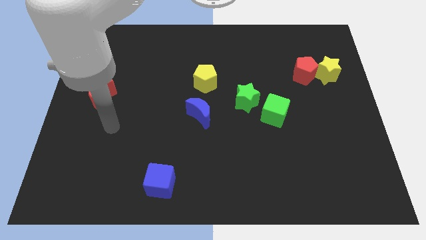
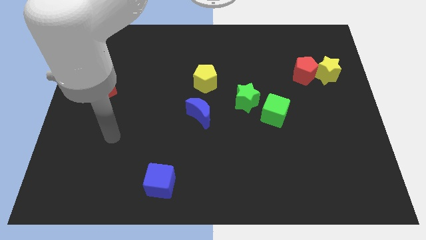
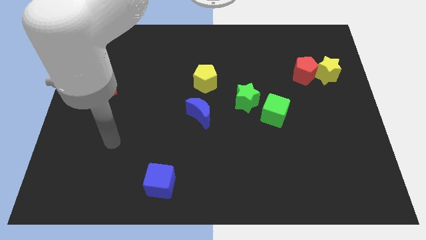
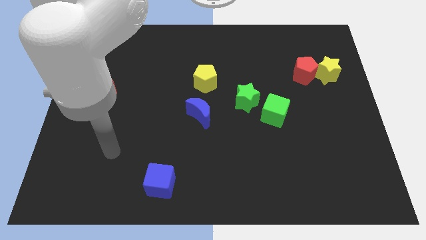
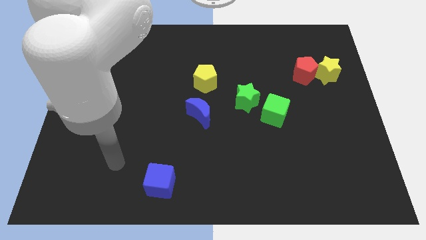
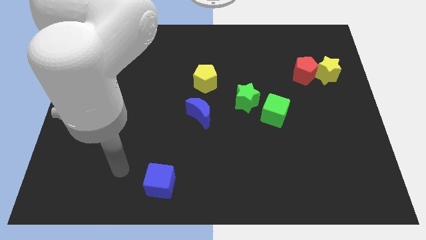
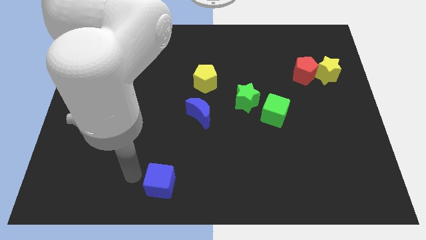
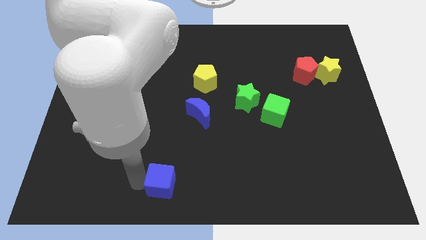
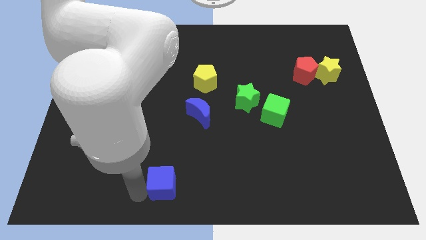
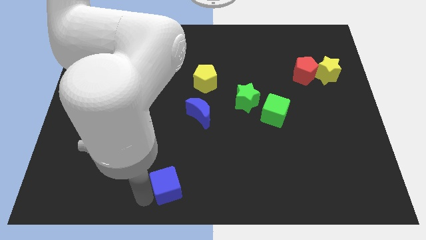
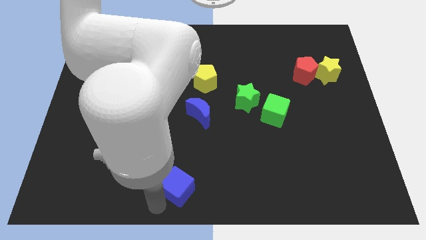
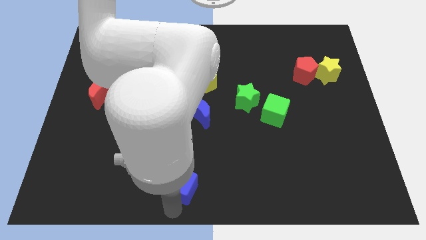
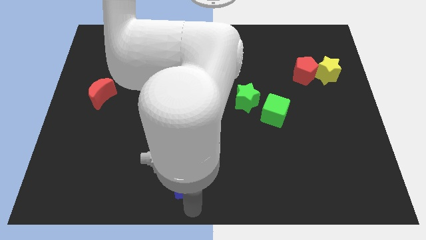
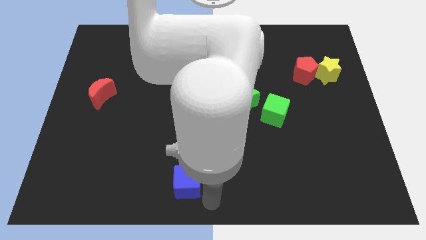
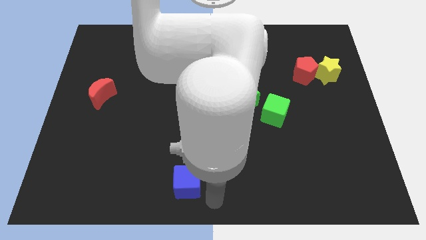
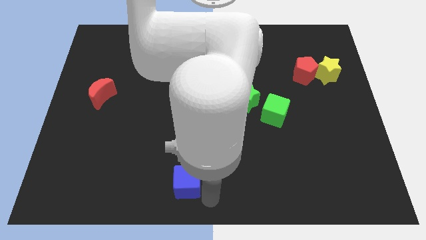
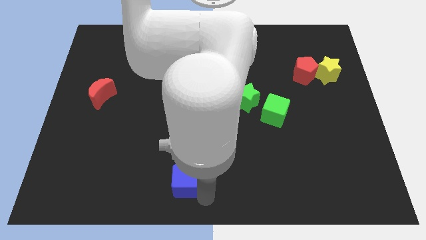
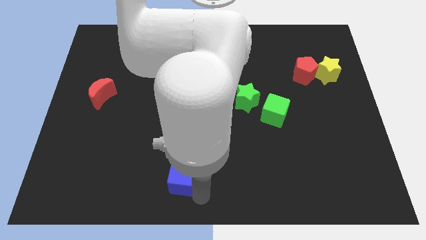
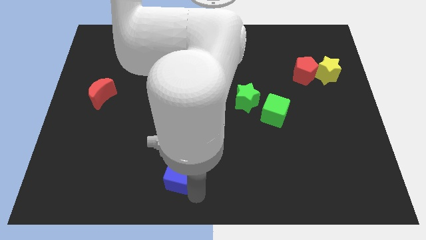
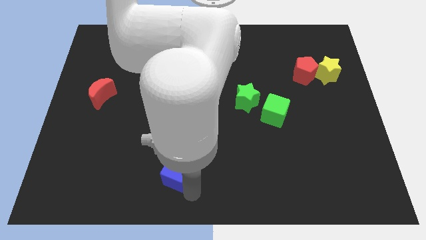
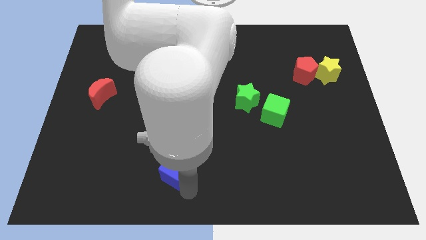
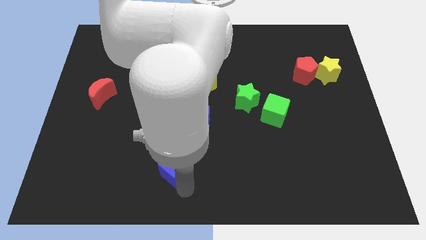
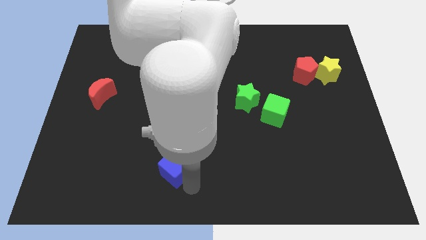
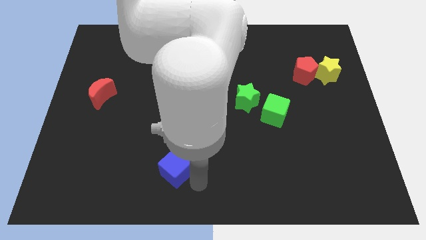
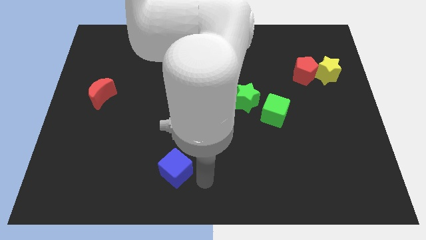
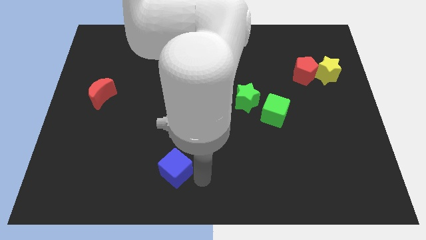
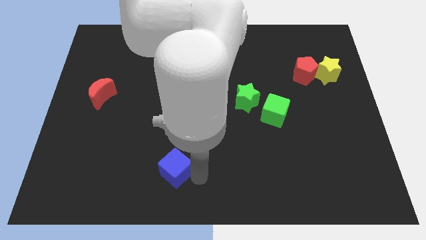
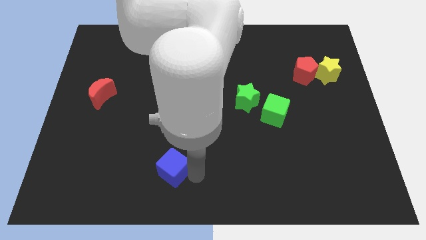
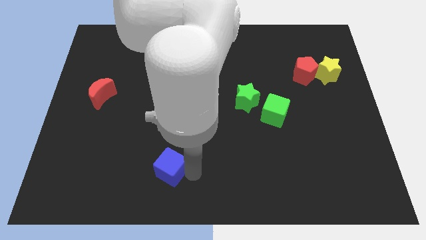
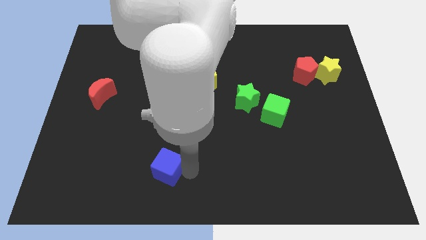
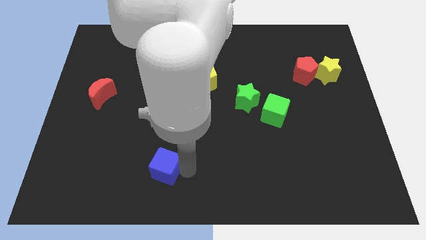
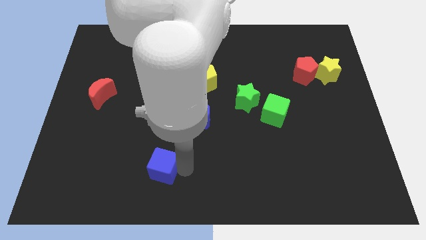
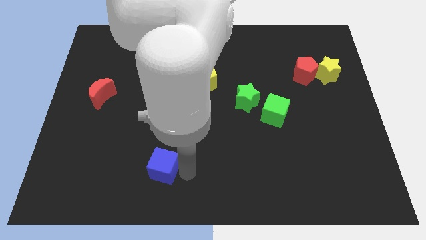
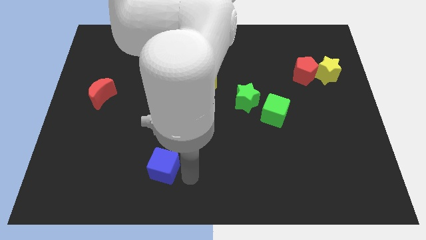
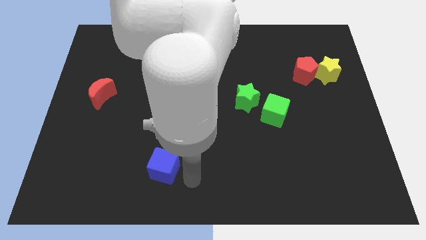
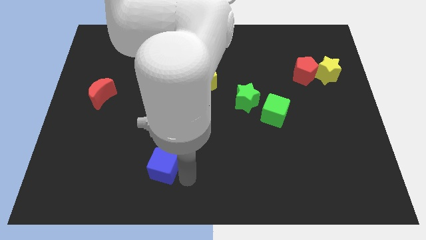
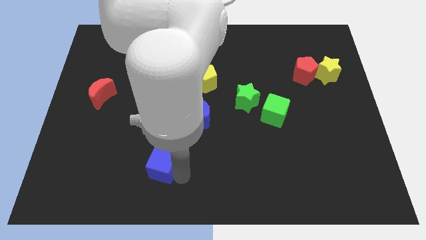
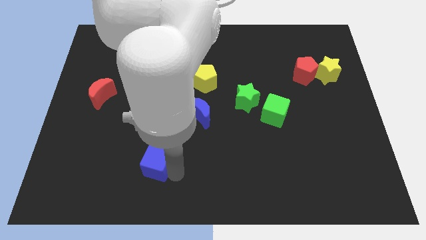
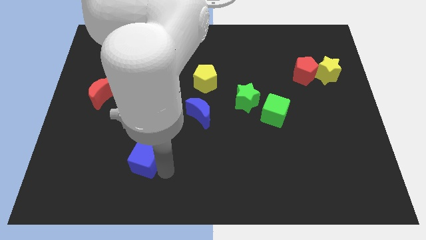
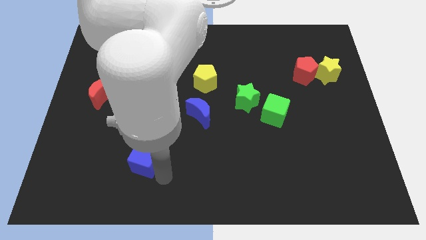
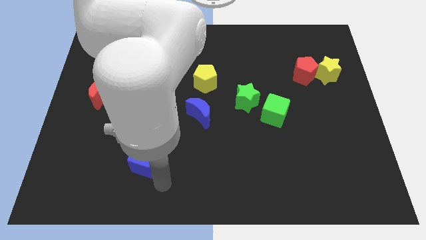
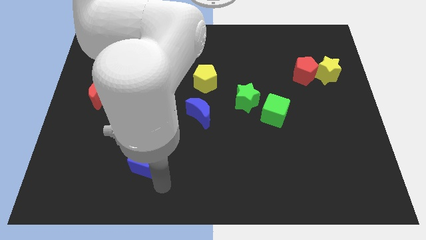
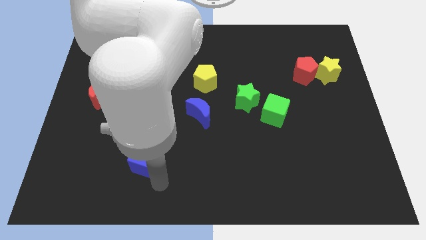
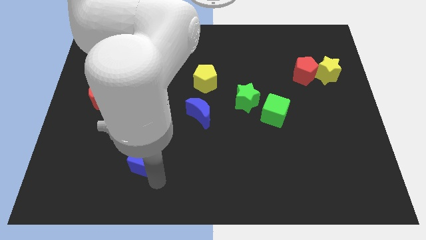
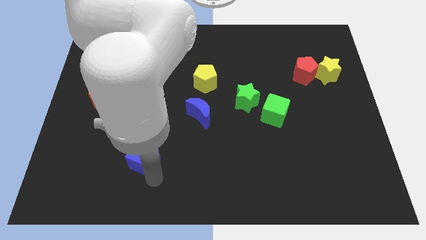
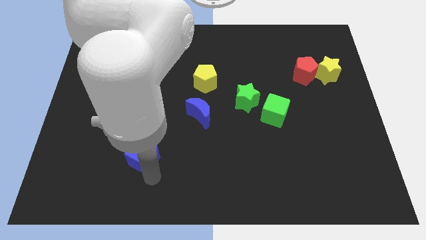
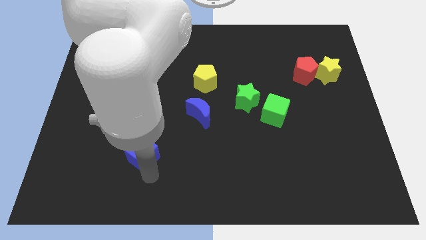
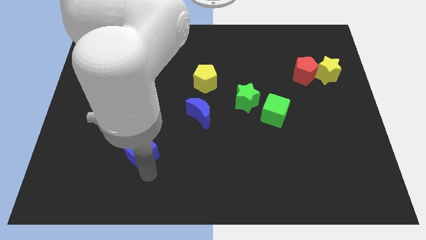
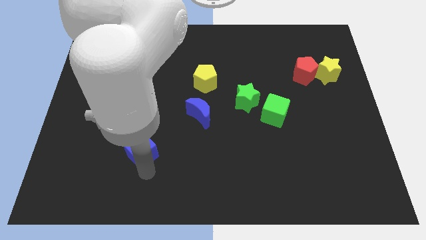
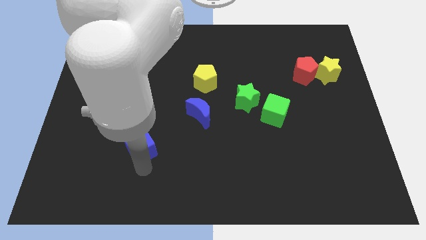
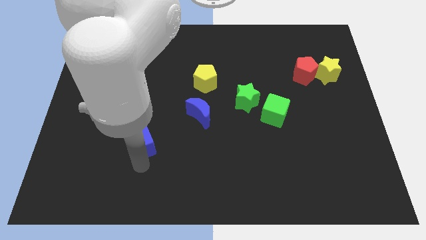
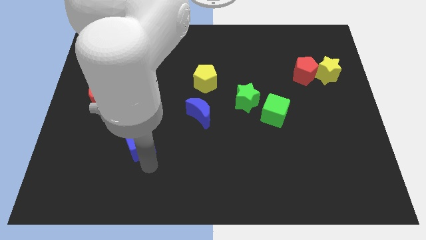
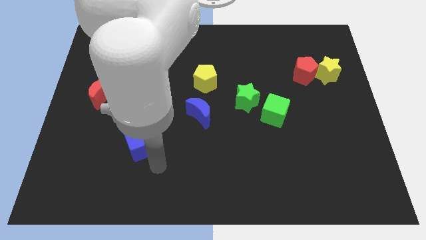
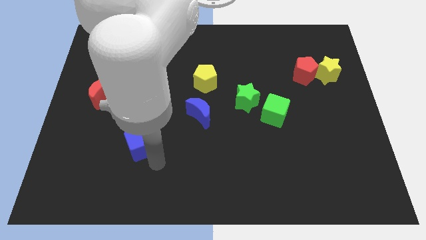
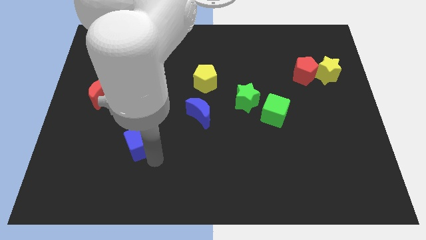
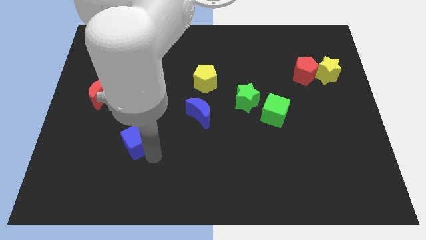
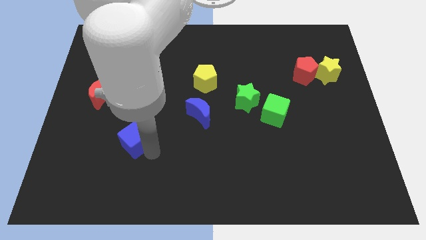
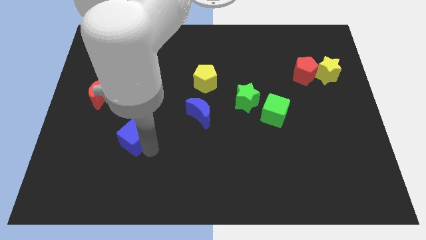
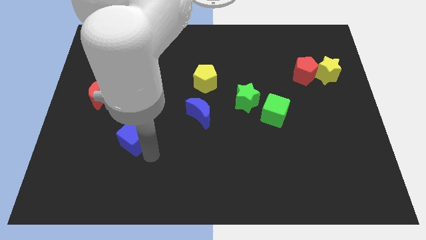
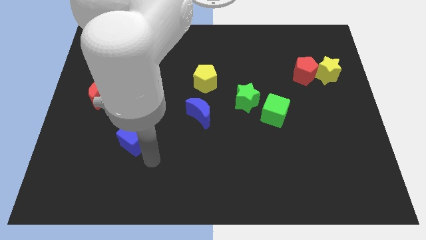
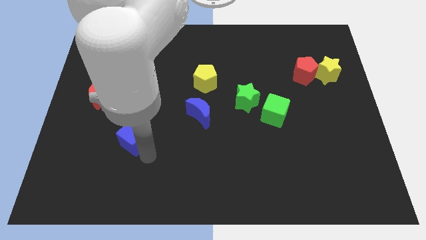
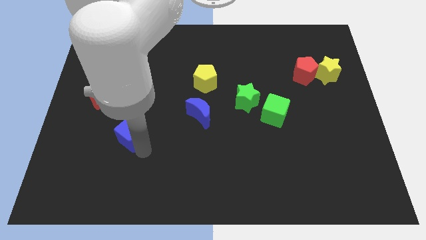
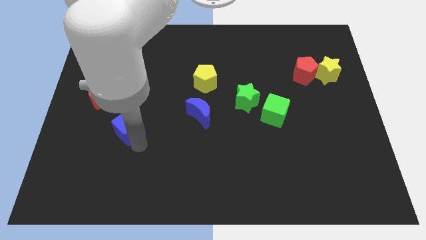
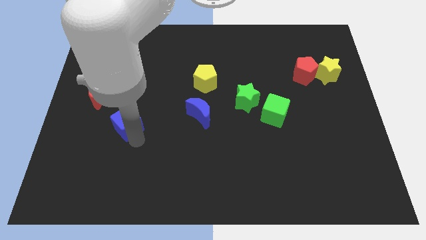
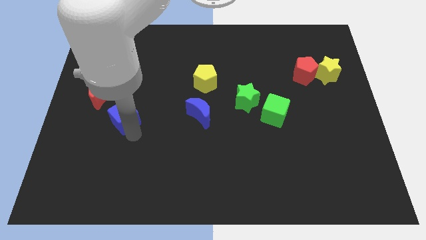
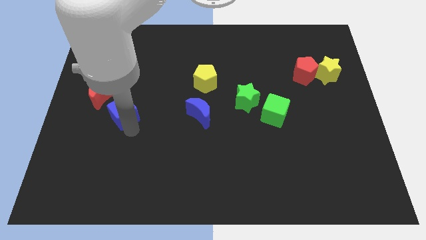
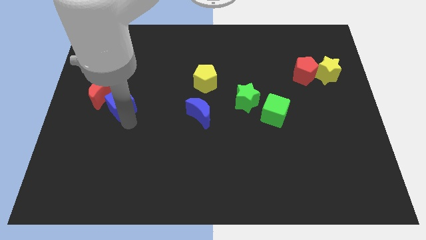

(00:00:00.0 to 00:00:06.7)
push the blue cube close to the red moon
